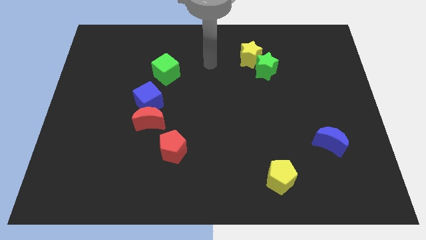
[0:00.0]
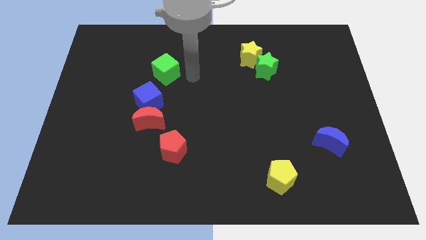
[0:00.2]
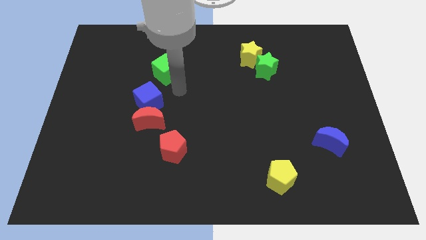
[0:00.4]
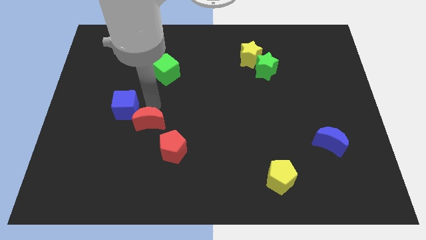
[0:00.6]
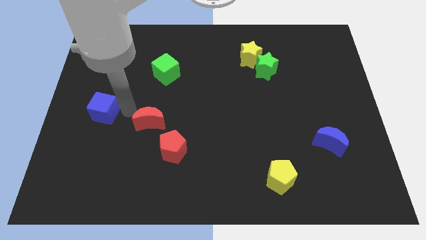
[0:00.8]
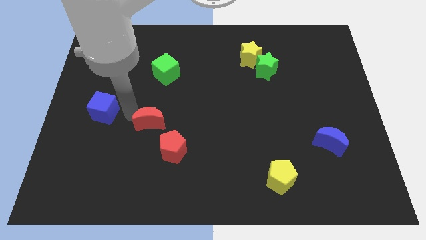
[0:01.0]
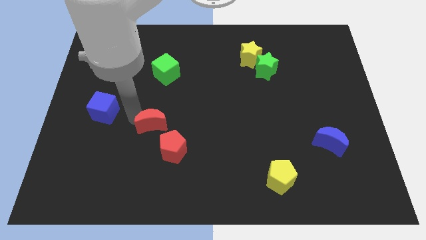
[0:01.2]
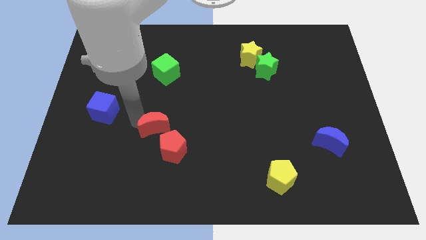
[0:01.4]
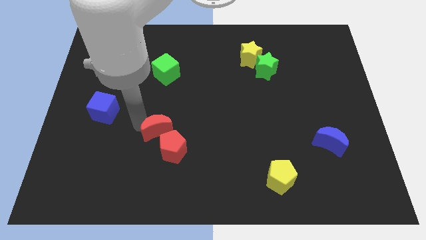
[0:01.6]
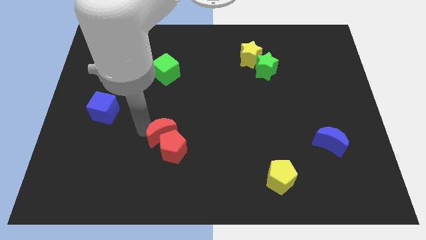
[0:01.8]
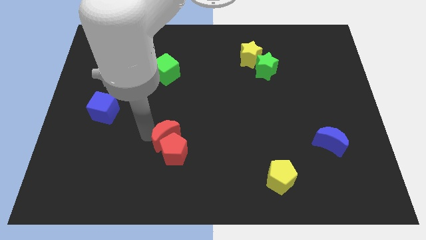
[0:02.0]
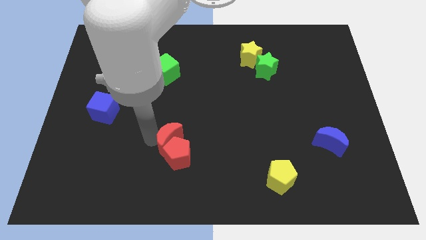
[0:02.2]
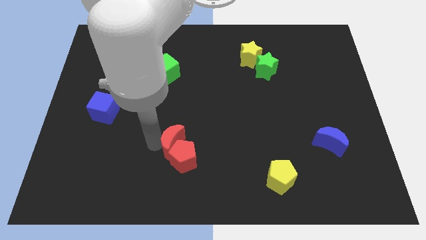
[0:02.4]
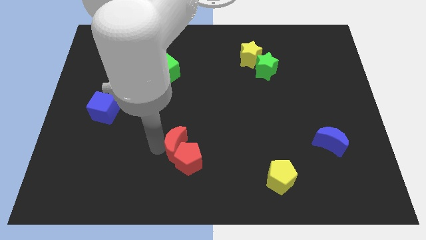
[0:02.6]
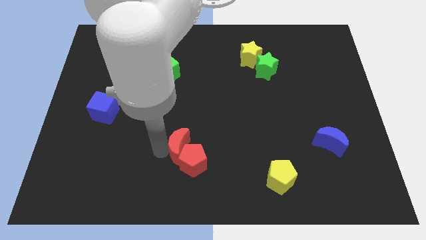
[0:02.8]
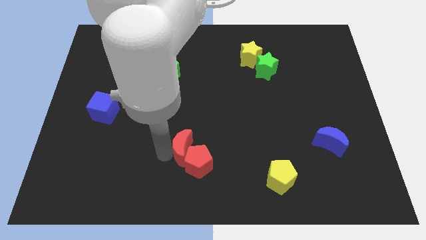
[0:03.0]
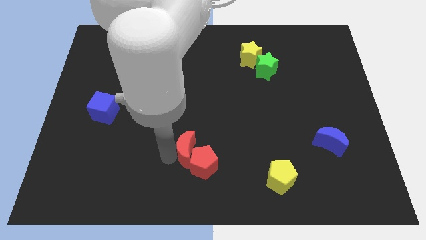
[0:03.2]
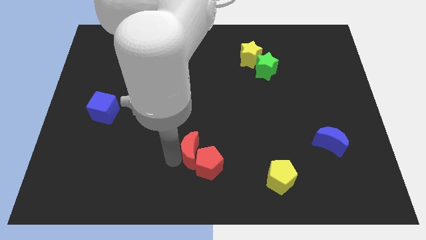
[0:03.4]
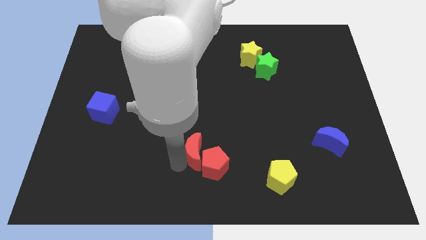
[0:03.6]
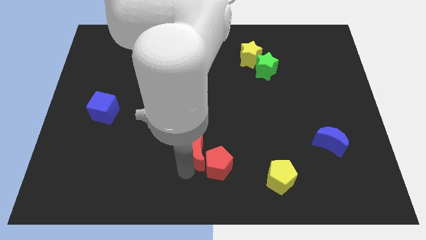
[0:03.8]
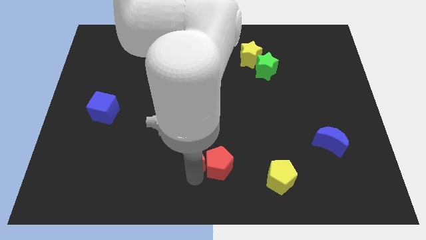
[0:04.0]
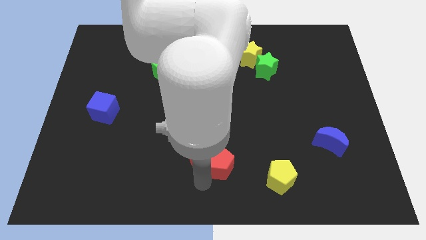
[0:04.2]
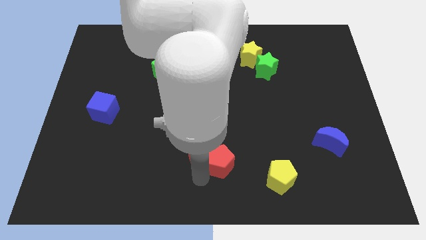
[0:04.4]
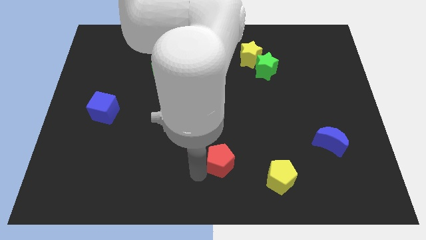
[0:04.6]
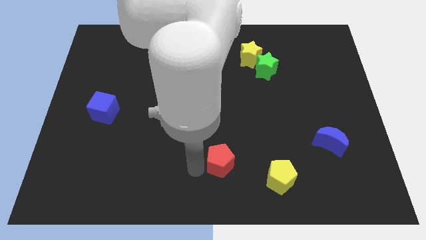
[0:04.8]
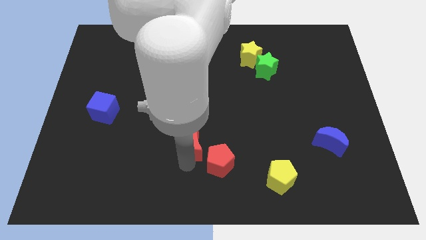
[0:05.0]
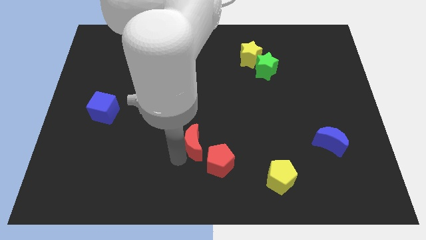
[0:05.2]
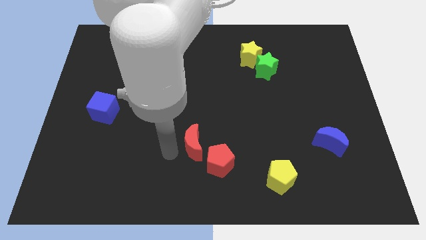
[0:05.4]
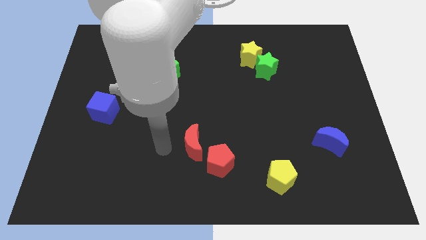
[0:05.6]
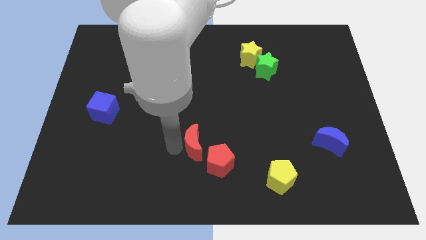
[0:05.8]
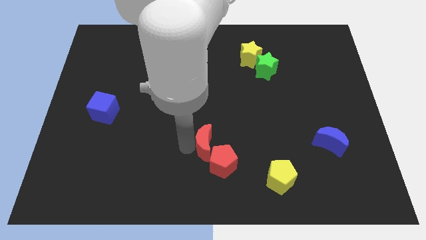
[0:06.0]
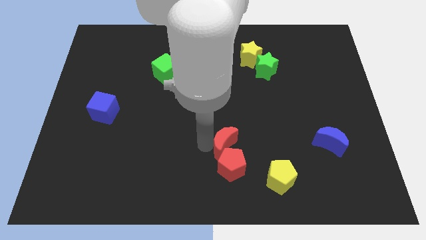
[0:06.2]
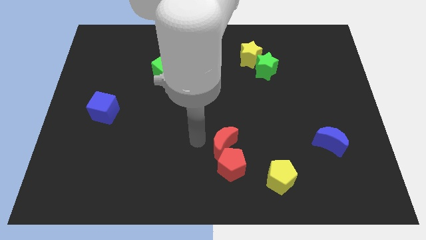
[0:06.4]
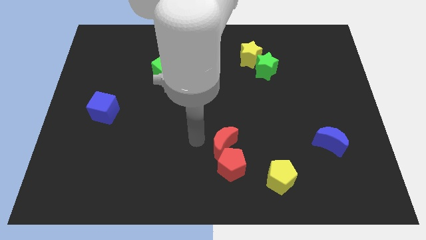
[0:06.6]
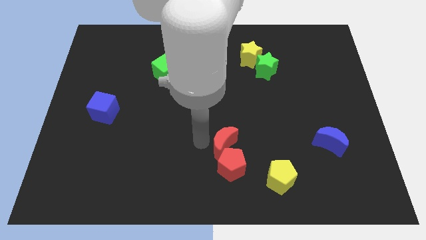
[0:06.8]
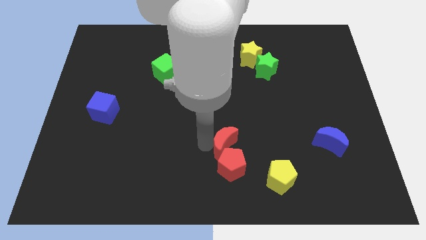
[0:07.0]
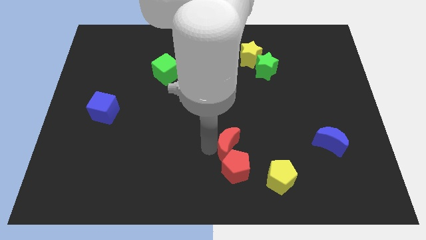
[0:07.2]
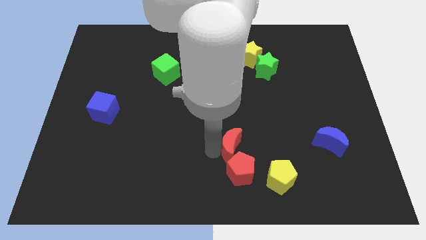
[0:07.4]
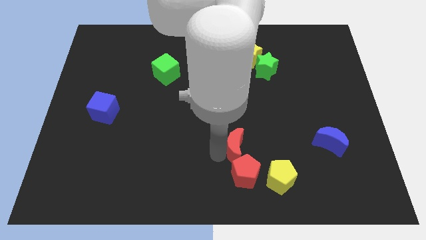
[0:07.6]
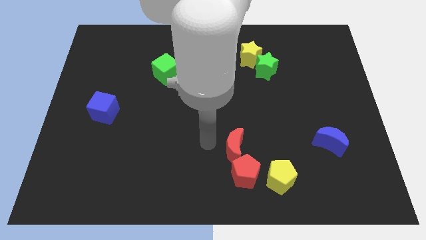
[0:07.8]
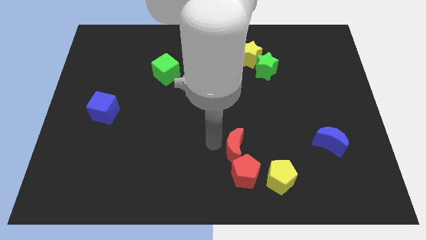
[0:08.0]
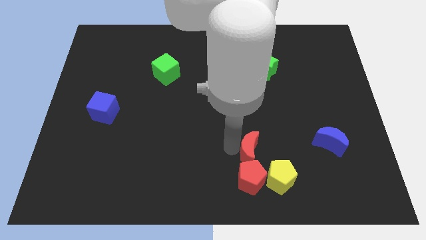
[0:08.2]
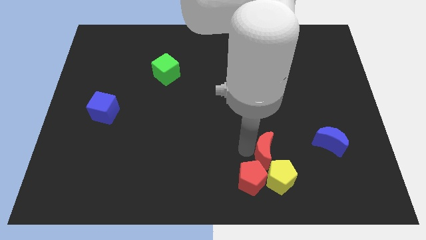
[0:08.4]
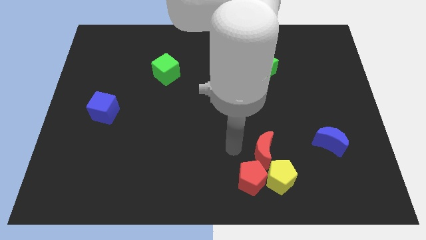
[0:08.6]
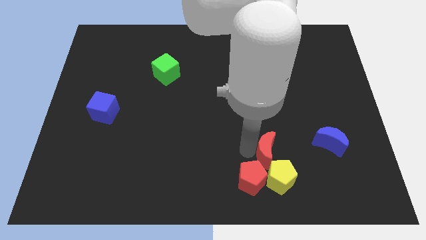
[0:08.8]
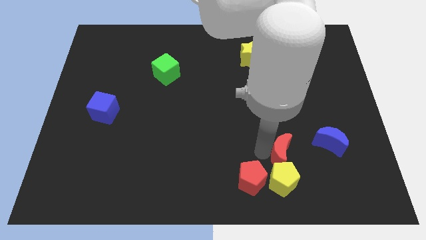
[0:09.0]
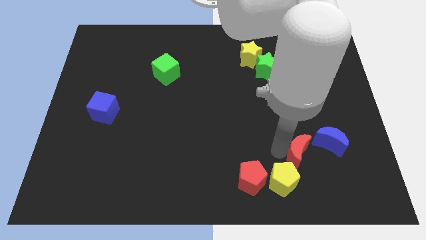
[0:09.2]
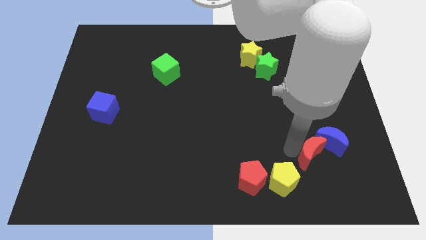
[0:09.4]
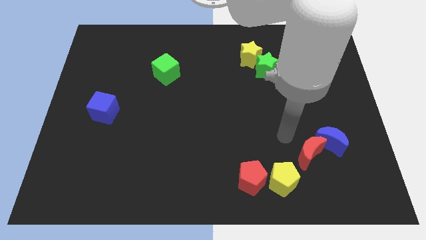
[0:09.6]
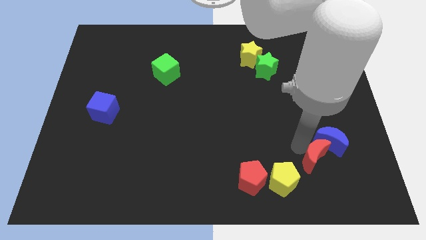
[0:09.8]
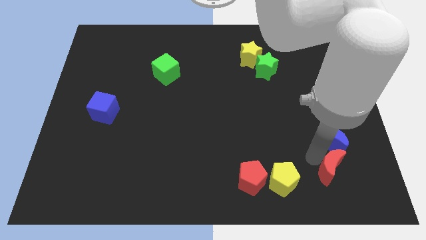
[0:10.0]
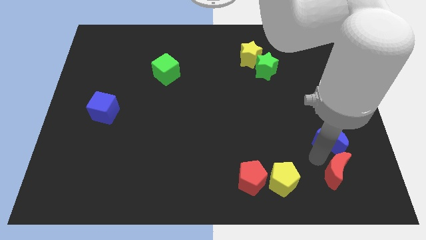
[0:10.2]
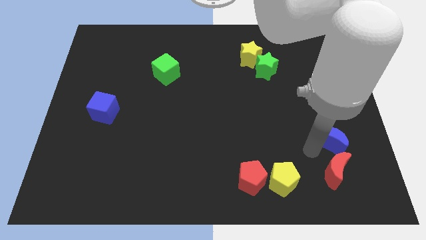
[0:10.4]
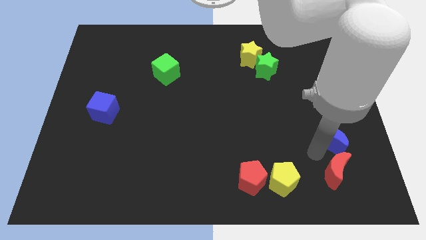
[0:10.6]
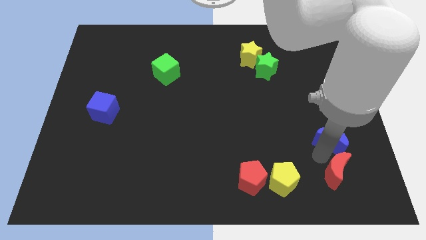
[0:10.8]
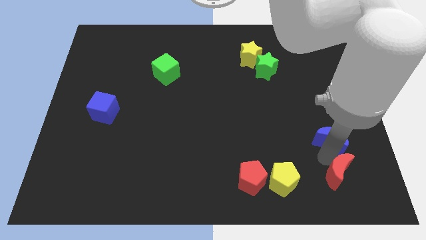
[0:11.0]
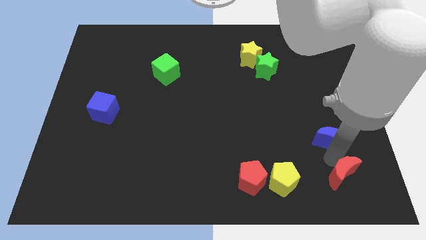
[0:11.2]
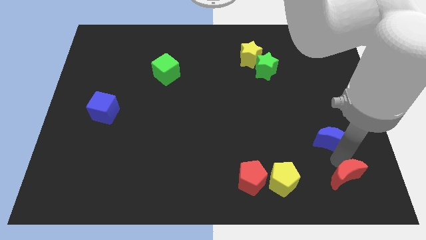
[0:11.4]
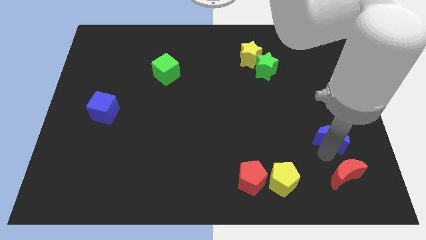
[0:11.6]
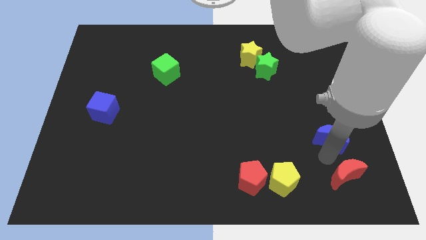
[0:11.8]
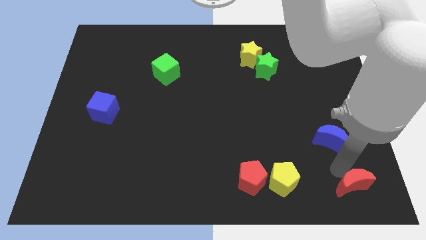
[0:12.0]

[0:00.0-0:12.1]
slide the red moon to the bottom right of the board

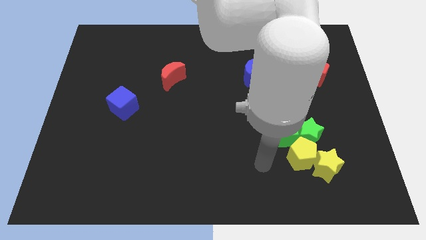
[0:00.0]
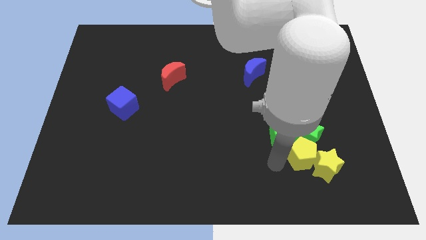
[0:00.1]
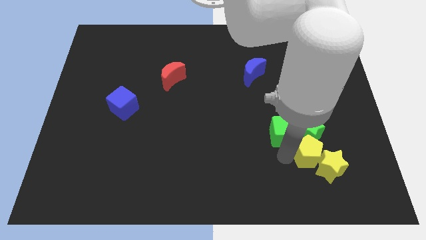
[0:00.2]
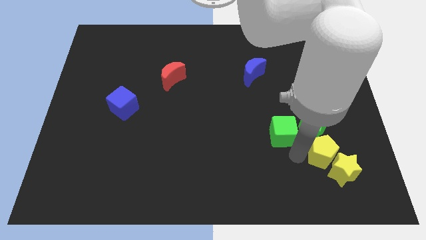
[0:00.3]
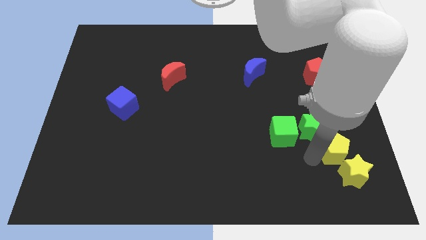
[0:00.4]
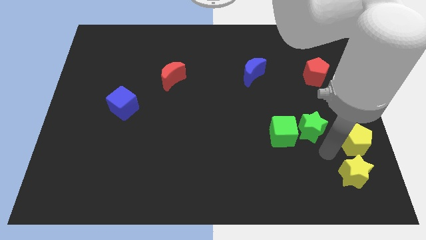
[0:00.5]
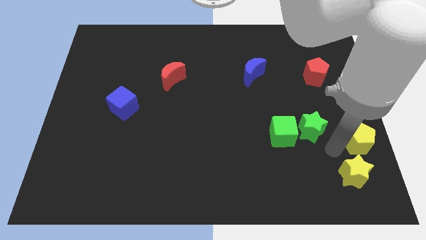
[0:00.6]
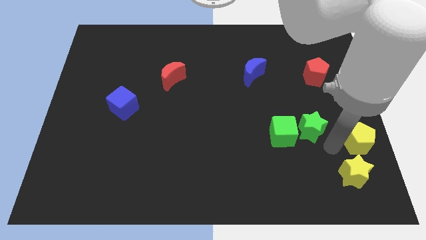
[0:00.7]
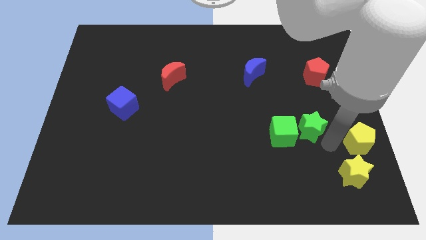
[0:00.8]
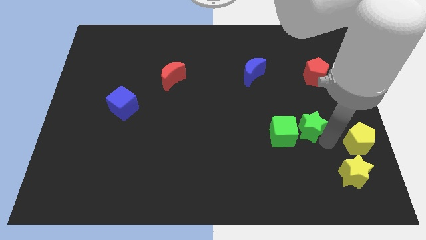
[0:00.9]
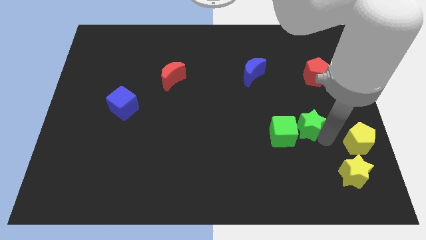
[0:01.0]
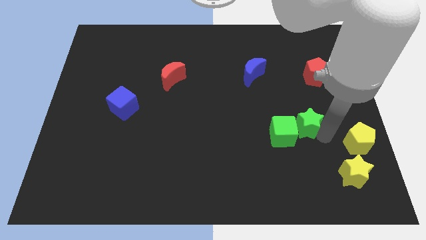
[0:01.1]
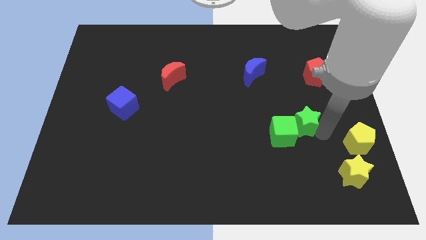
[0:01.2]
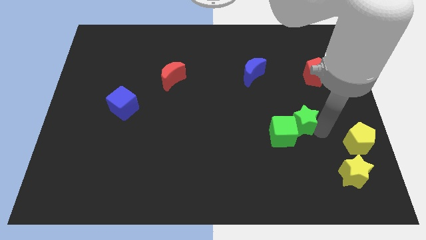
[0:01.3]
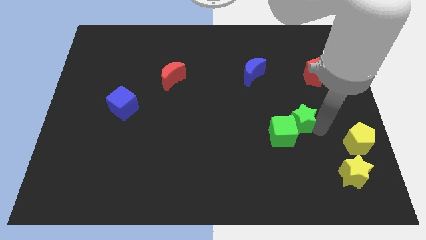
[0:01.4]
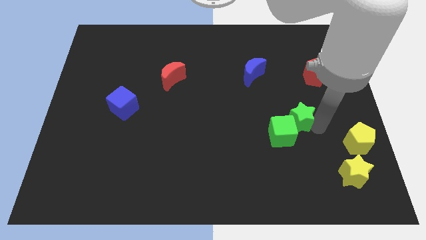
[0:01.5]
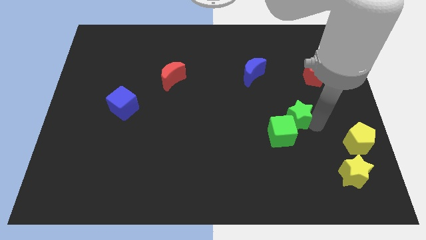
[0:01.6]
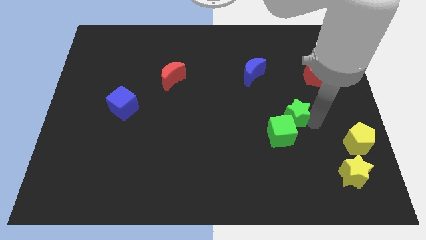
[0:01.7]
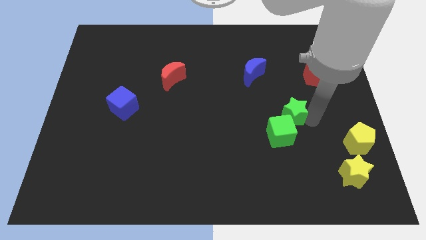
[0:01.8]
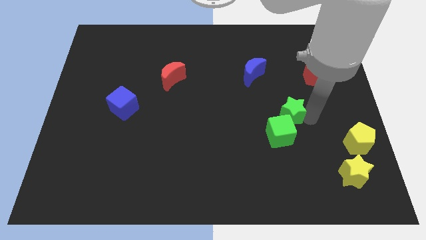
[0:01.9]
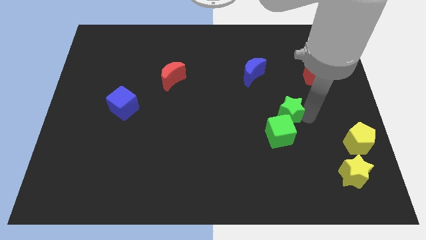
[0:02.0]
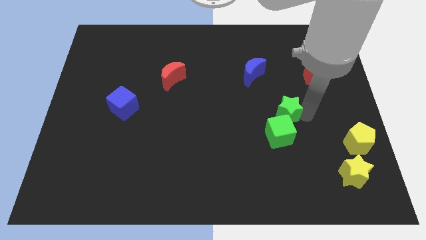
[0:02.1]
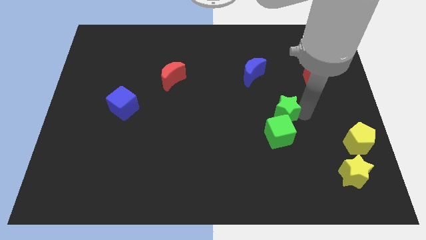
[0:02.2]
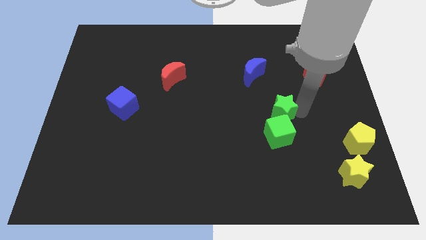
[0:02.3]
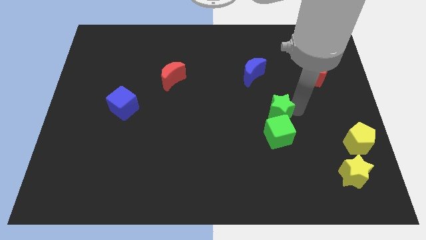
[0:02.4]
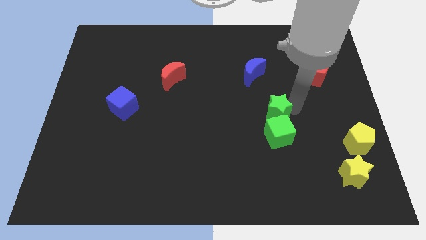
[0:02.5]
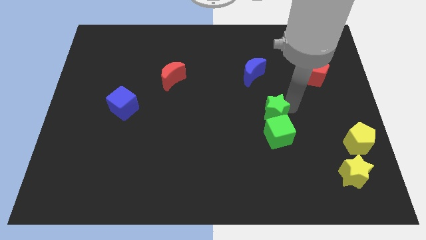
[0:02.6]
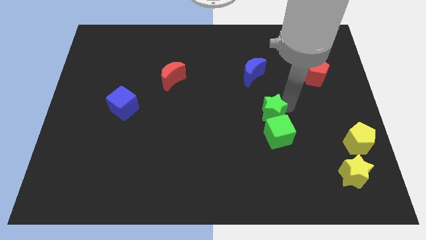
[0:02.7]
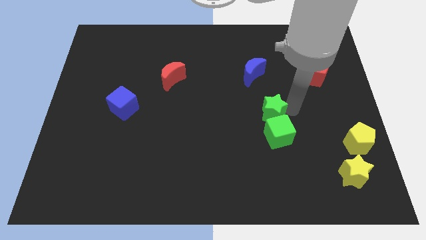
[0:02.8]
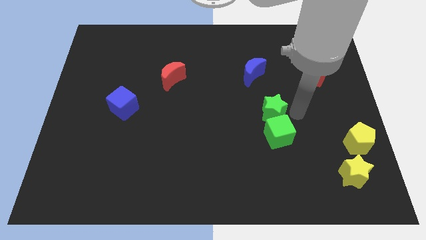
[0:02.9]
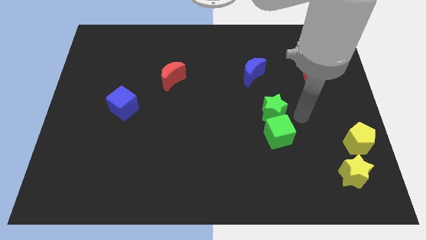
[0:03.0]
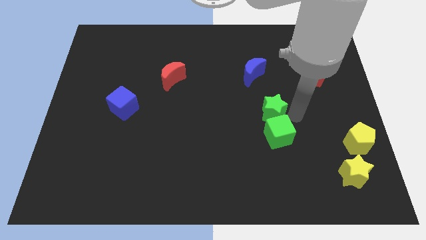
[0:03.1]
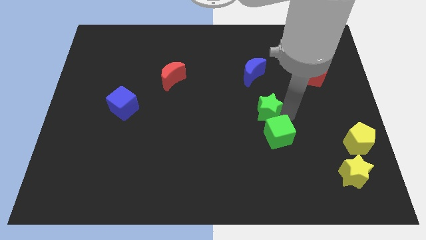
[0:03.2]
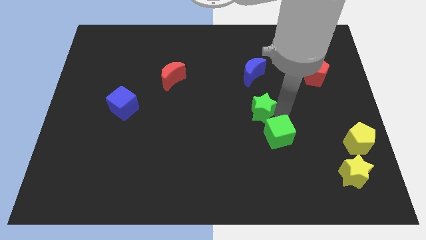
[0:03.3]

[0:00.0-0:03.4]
push the green star to the middle of the board
